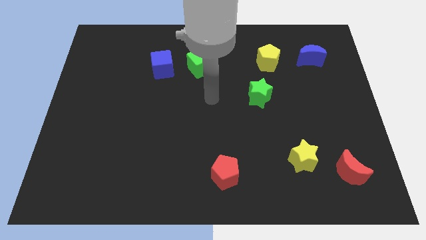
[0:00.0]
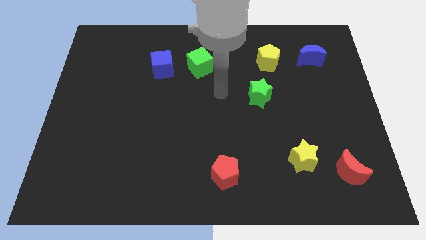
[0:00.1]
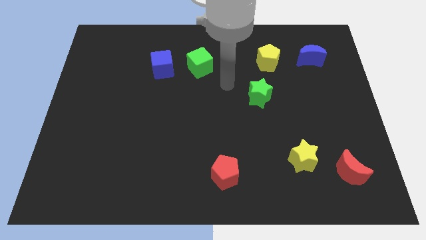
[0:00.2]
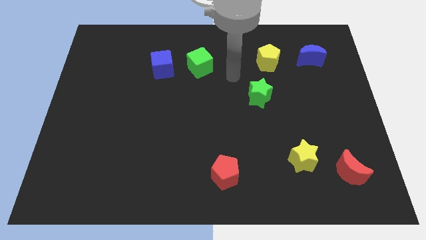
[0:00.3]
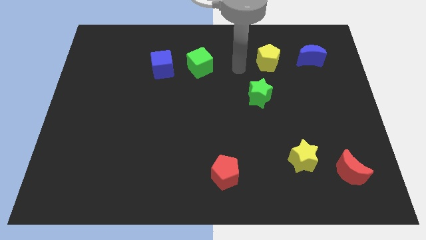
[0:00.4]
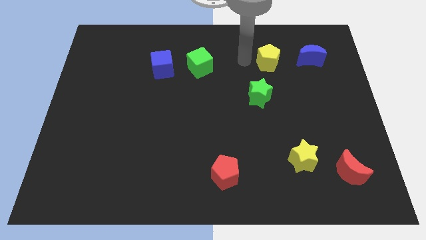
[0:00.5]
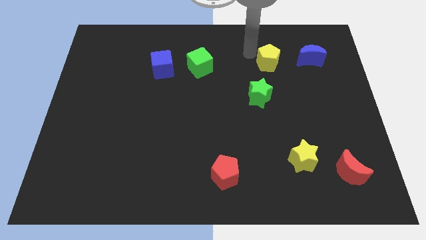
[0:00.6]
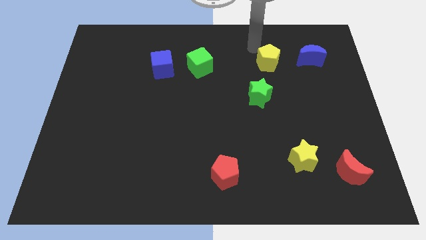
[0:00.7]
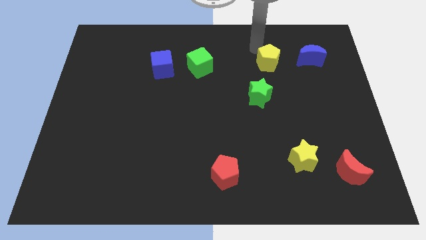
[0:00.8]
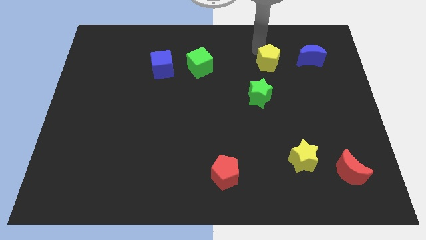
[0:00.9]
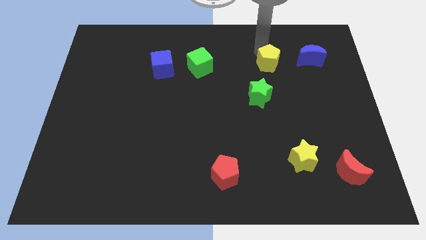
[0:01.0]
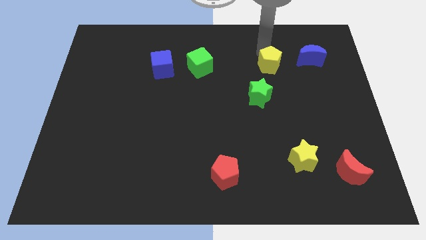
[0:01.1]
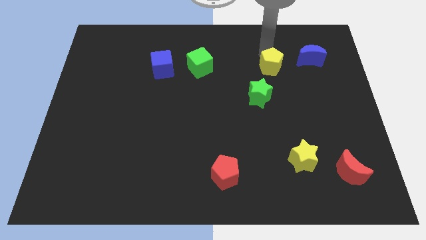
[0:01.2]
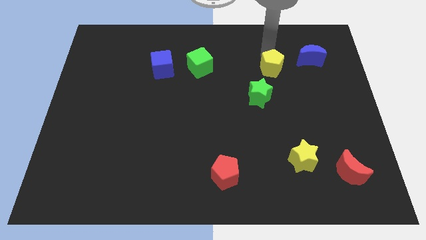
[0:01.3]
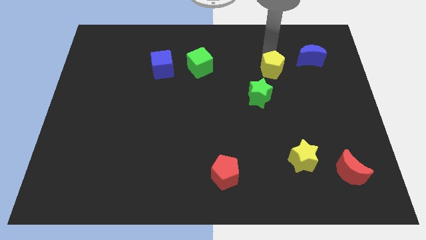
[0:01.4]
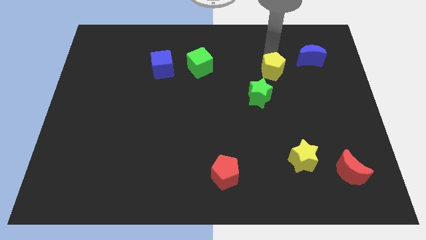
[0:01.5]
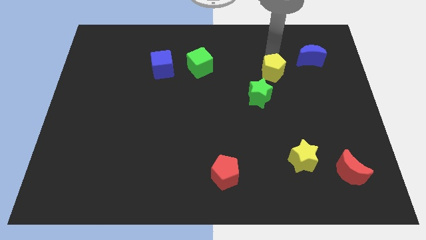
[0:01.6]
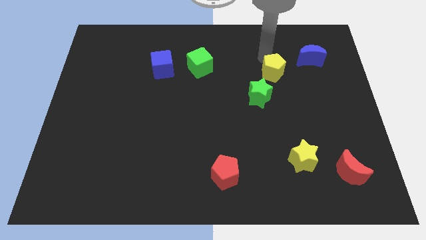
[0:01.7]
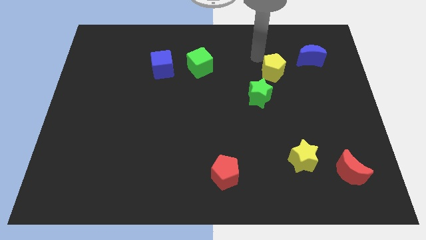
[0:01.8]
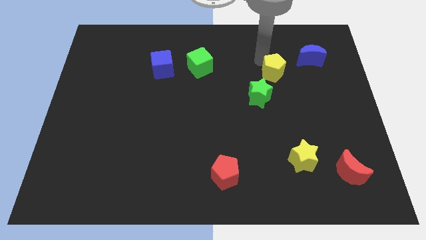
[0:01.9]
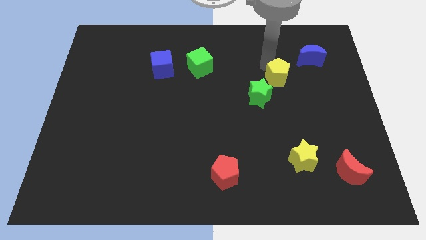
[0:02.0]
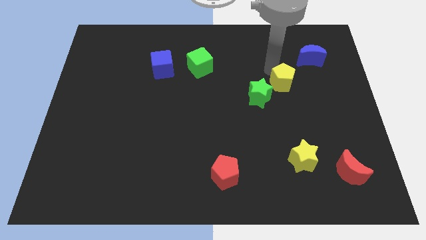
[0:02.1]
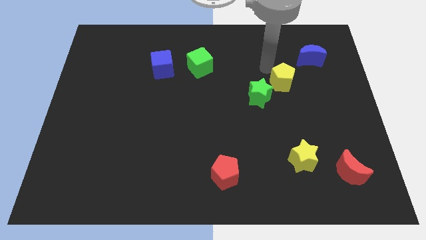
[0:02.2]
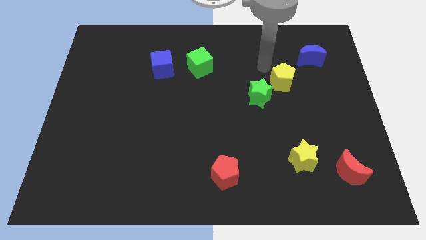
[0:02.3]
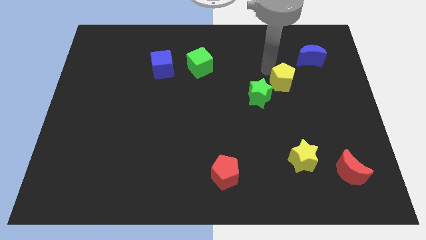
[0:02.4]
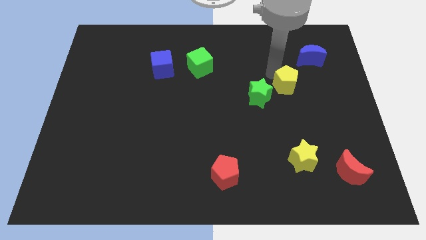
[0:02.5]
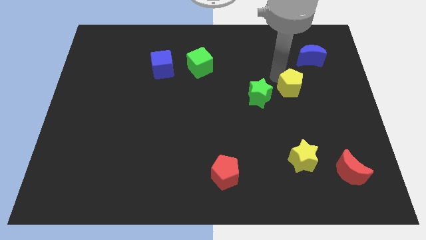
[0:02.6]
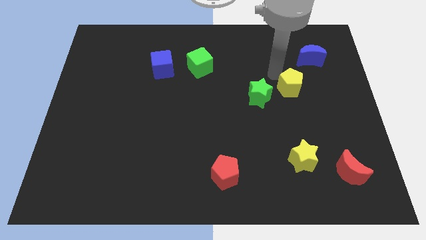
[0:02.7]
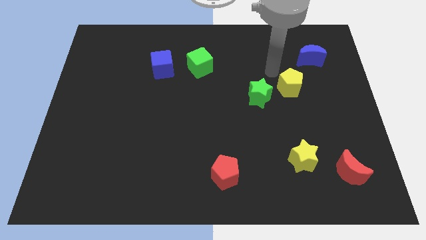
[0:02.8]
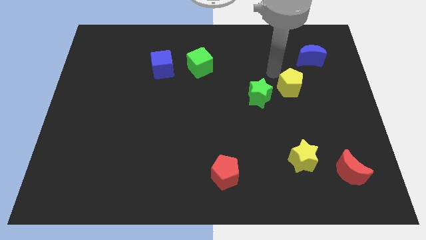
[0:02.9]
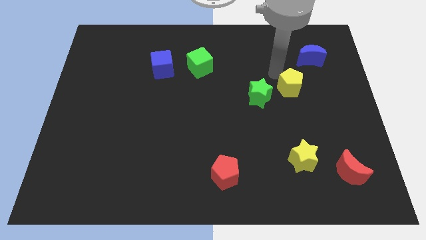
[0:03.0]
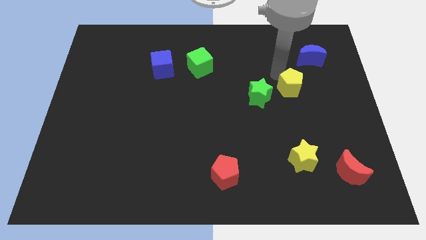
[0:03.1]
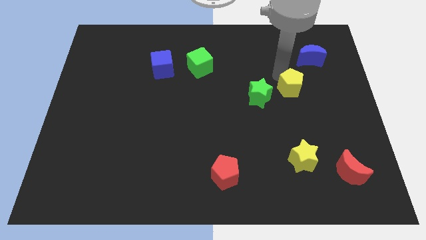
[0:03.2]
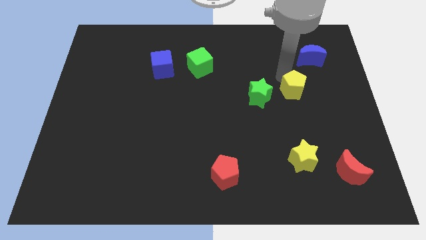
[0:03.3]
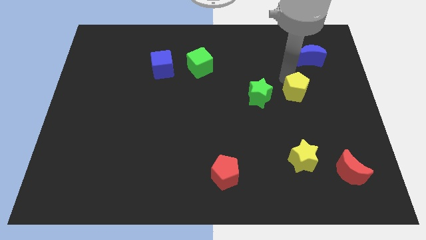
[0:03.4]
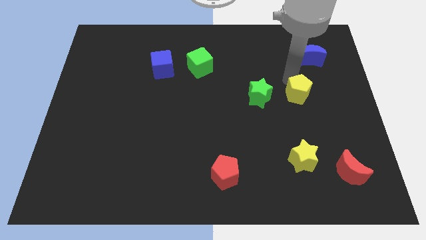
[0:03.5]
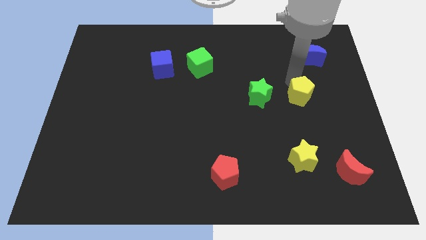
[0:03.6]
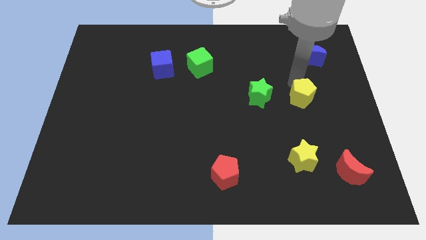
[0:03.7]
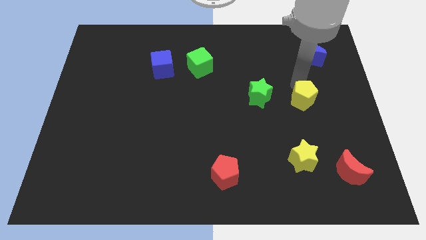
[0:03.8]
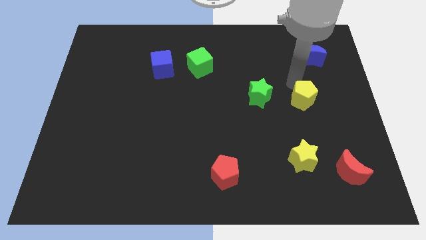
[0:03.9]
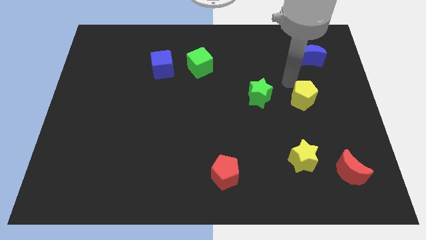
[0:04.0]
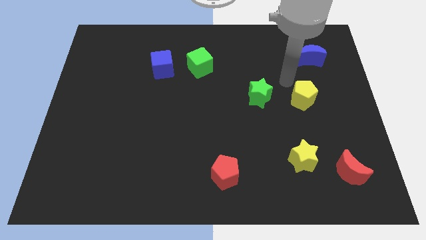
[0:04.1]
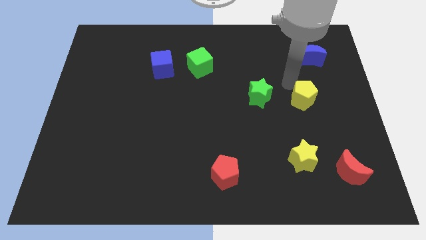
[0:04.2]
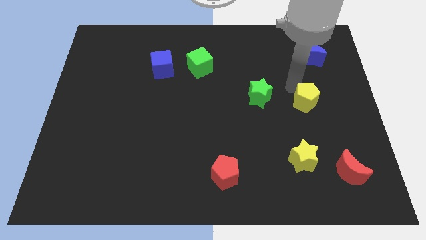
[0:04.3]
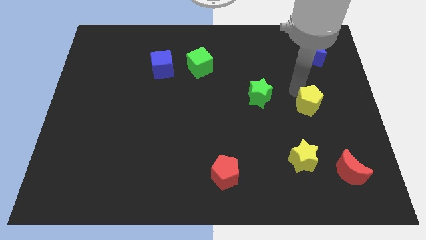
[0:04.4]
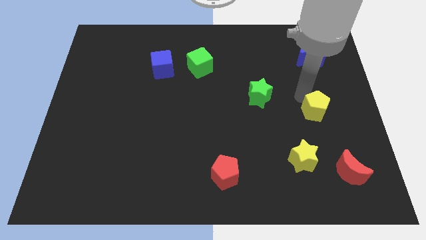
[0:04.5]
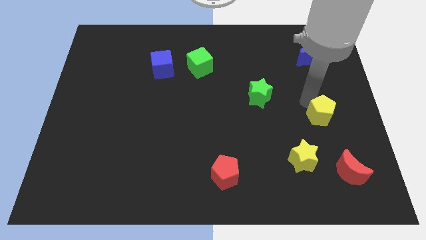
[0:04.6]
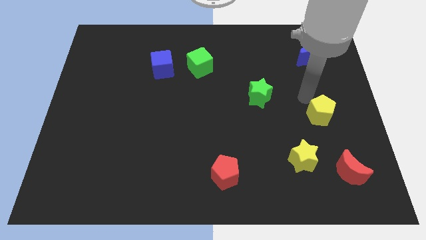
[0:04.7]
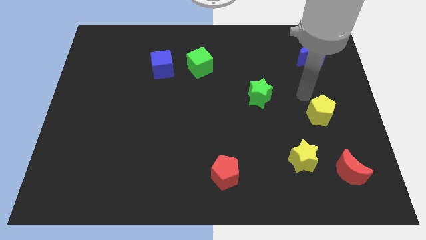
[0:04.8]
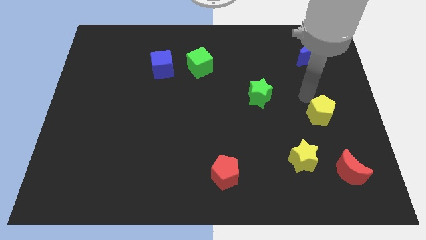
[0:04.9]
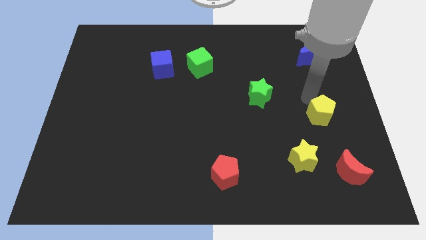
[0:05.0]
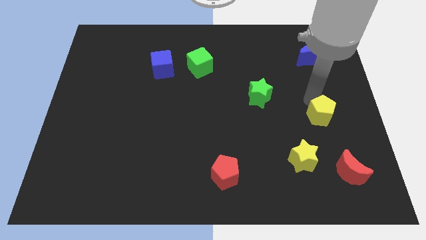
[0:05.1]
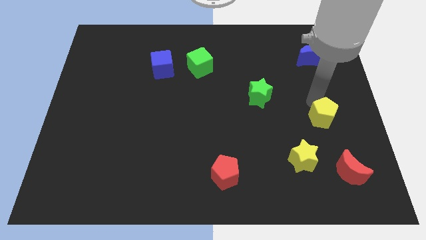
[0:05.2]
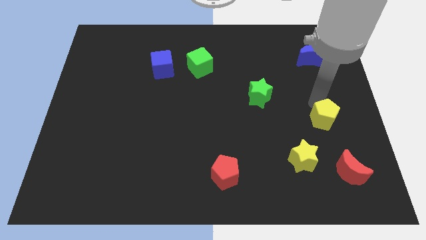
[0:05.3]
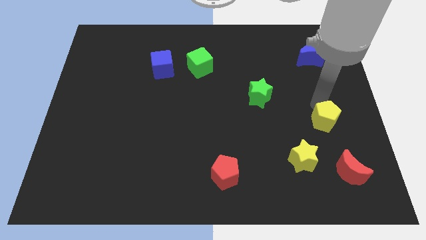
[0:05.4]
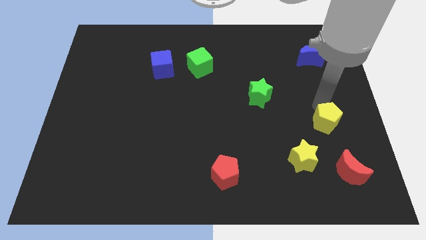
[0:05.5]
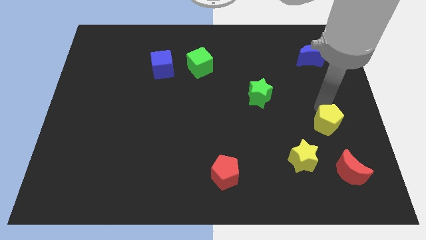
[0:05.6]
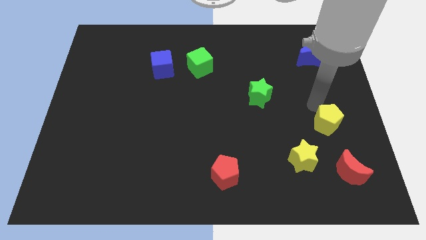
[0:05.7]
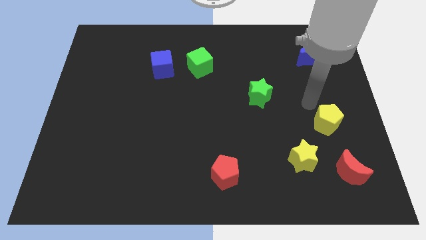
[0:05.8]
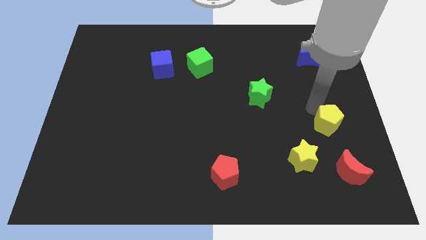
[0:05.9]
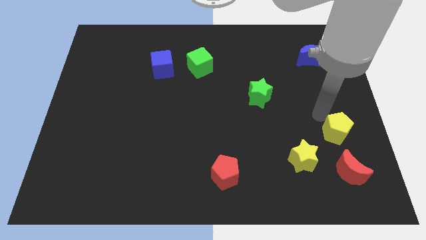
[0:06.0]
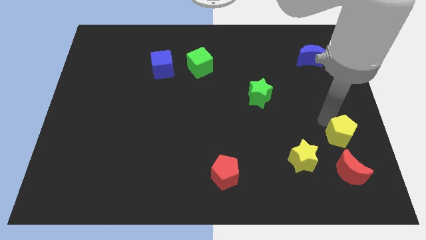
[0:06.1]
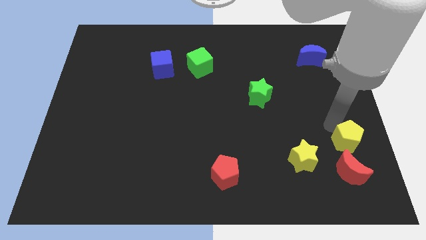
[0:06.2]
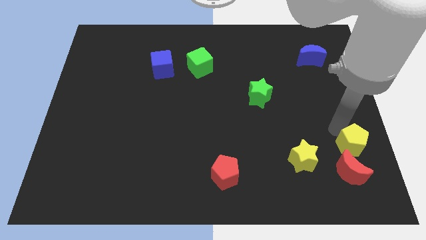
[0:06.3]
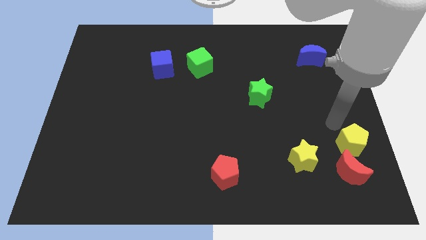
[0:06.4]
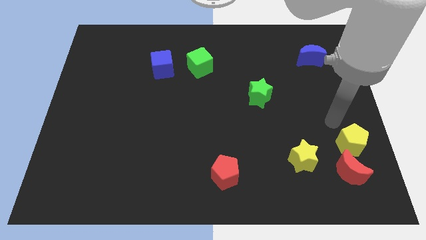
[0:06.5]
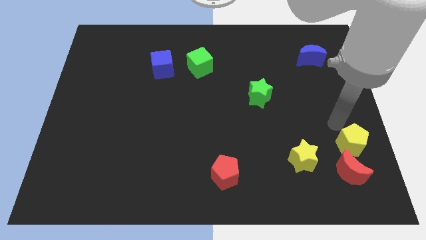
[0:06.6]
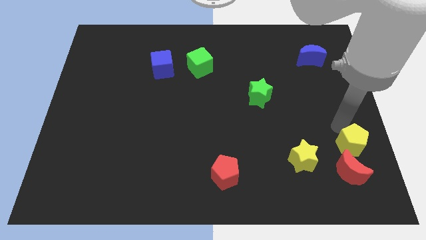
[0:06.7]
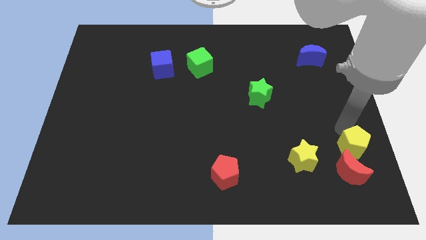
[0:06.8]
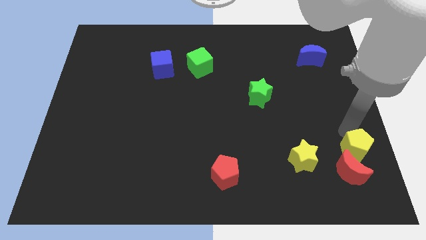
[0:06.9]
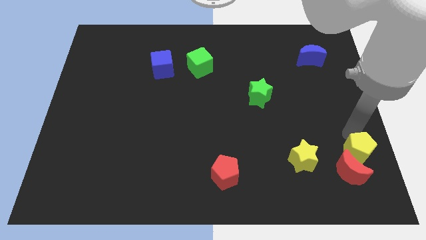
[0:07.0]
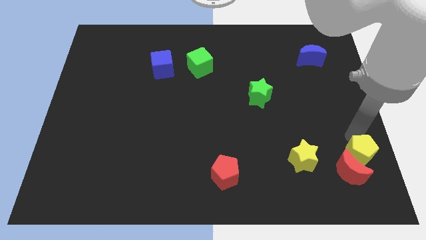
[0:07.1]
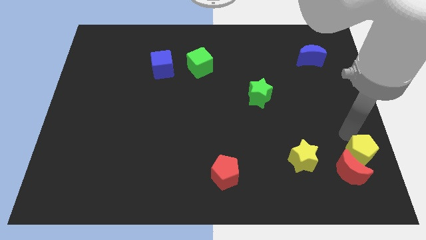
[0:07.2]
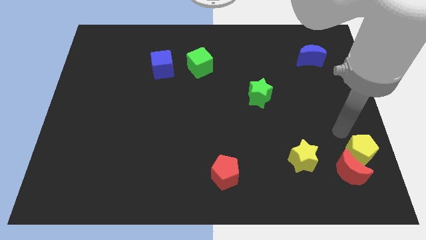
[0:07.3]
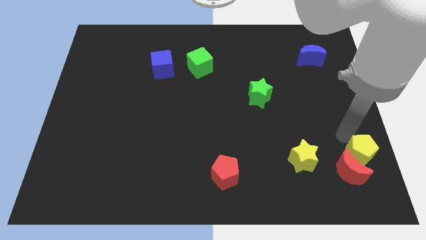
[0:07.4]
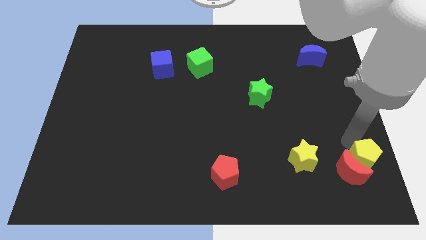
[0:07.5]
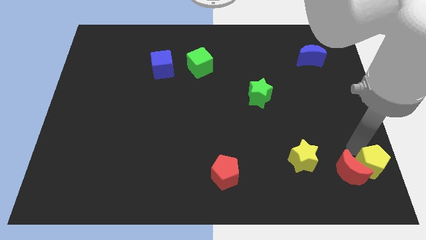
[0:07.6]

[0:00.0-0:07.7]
push the yellow pentagon to the bottom right corner
